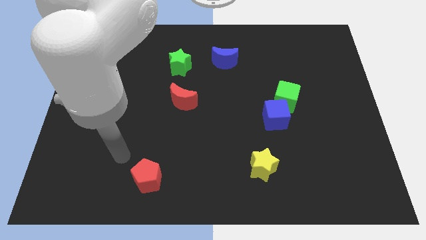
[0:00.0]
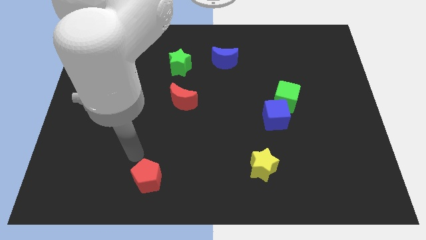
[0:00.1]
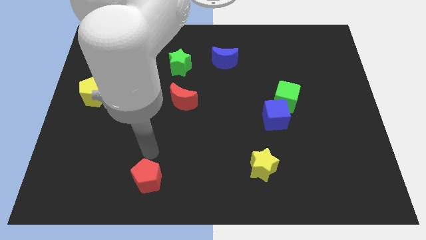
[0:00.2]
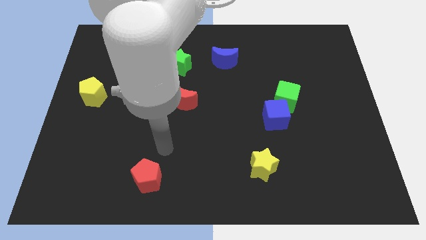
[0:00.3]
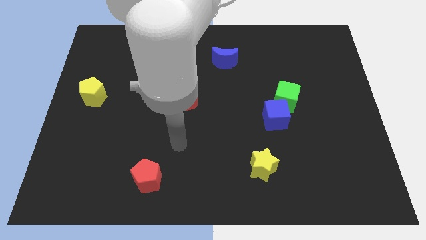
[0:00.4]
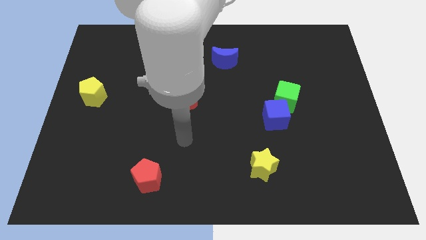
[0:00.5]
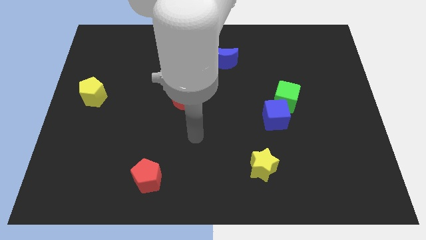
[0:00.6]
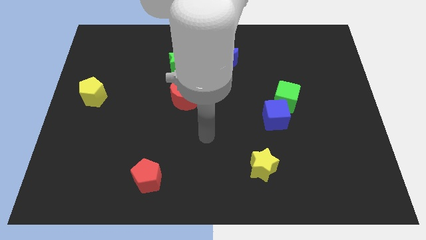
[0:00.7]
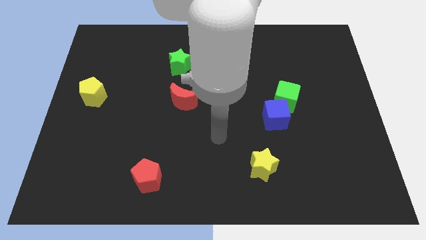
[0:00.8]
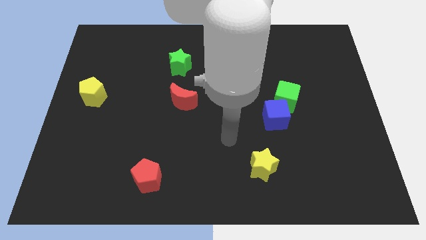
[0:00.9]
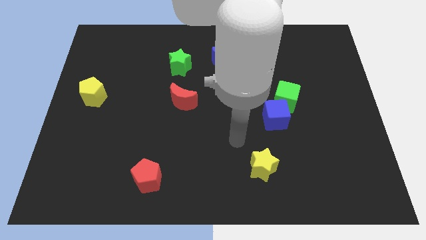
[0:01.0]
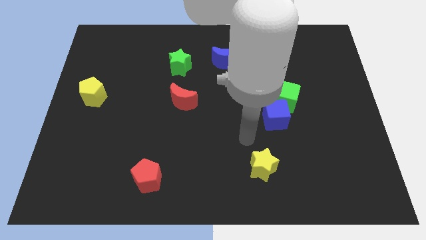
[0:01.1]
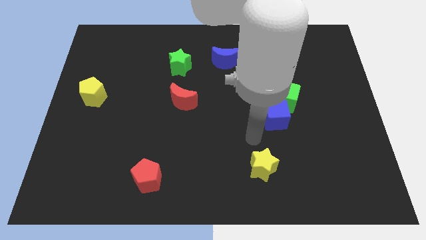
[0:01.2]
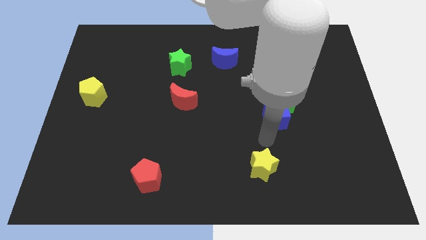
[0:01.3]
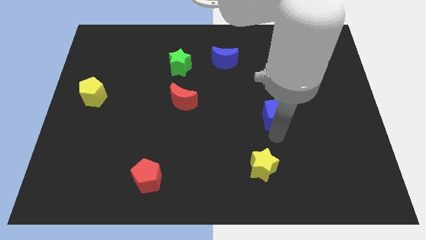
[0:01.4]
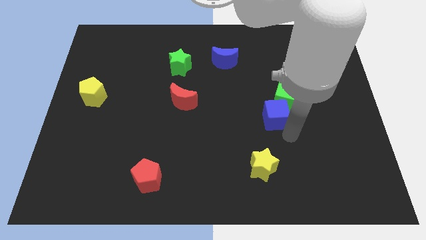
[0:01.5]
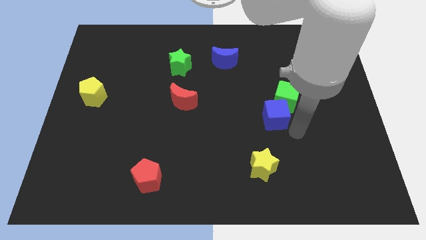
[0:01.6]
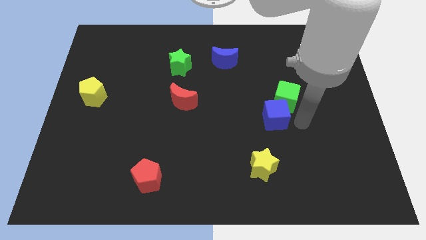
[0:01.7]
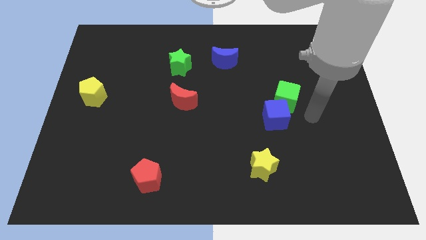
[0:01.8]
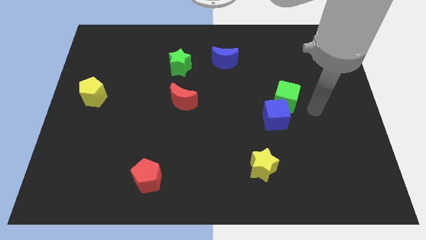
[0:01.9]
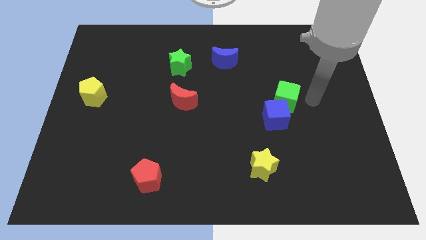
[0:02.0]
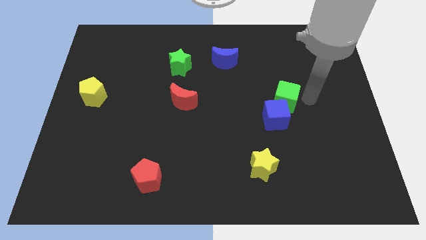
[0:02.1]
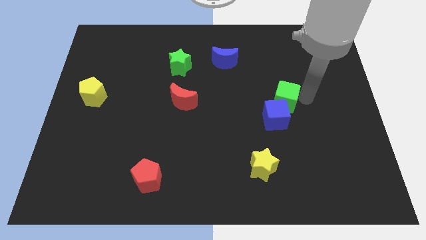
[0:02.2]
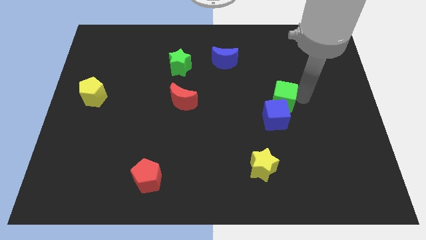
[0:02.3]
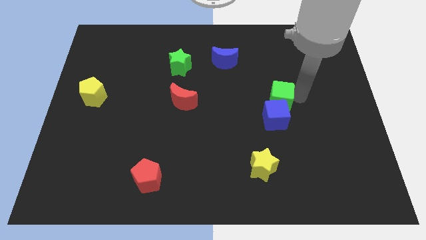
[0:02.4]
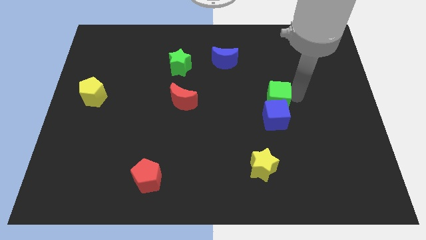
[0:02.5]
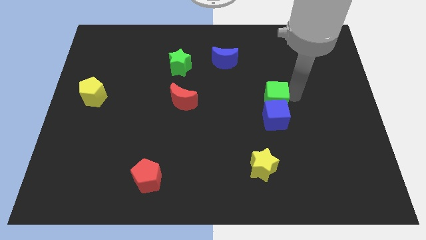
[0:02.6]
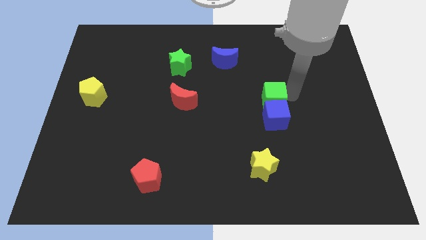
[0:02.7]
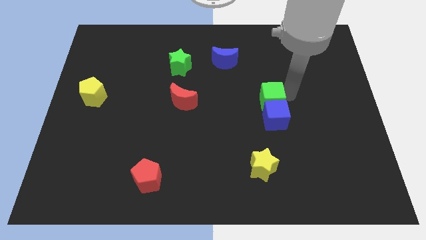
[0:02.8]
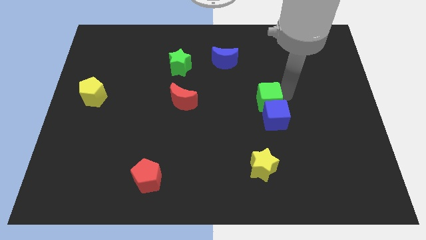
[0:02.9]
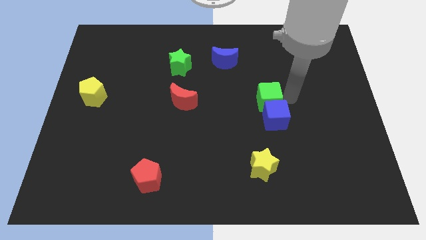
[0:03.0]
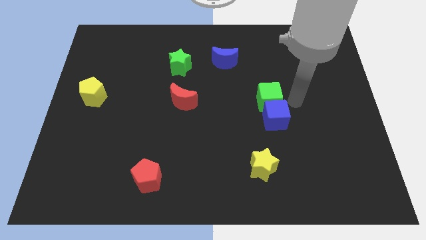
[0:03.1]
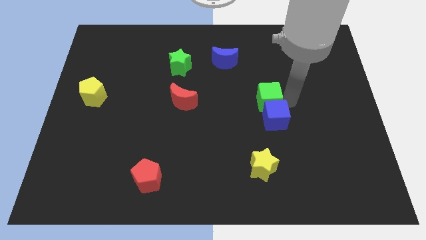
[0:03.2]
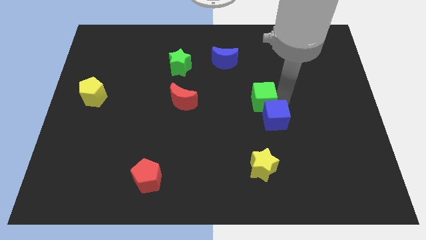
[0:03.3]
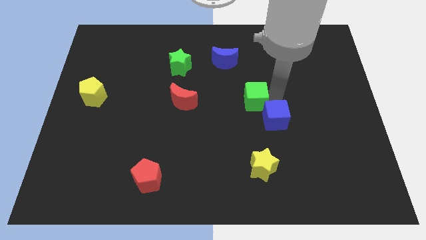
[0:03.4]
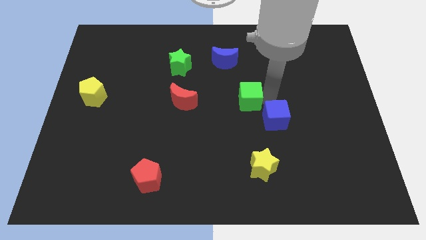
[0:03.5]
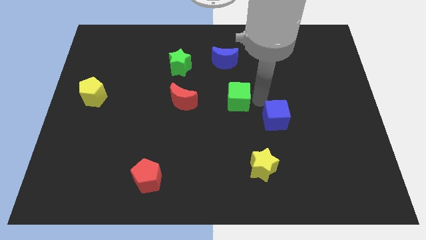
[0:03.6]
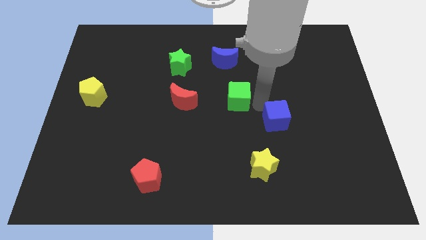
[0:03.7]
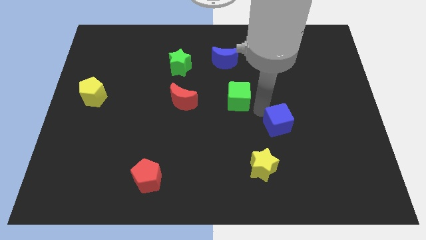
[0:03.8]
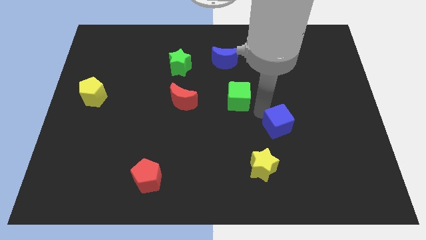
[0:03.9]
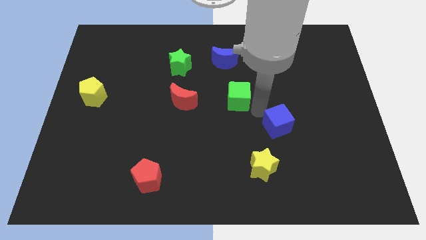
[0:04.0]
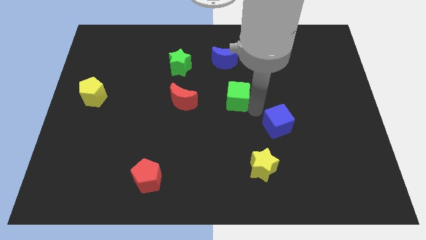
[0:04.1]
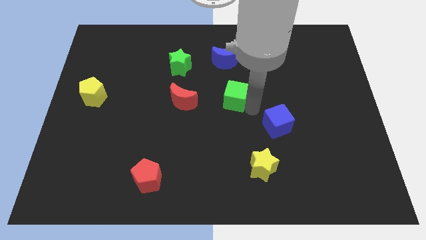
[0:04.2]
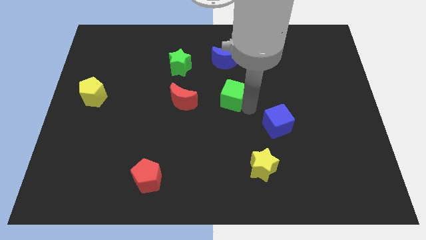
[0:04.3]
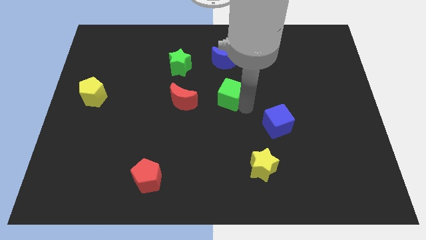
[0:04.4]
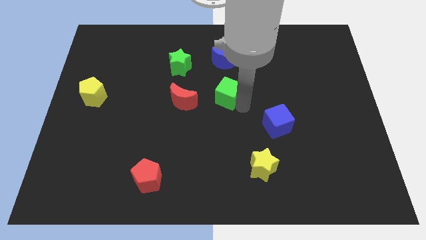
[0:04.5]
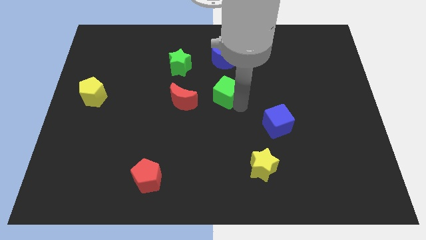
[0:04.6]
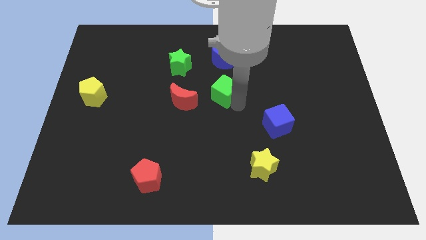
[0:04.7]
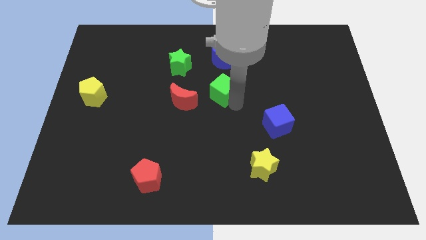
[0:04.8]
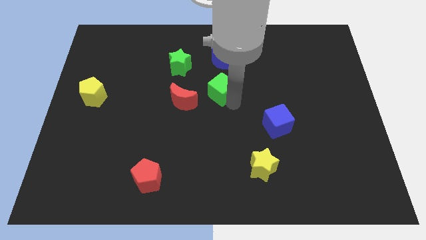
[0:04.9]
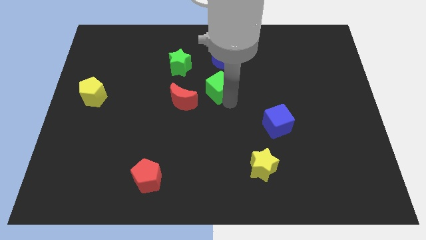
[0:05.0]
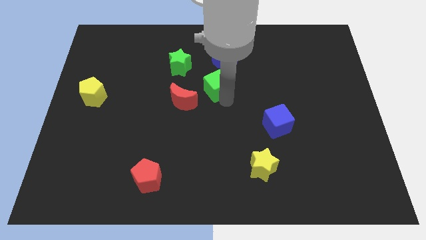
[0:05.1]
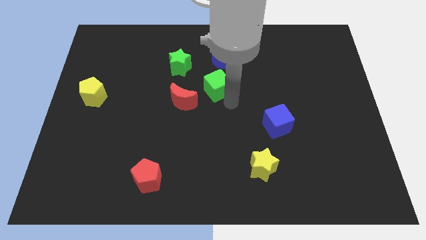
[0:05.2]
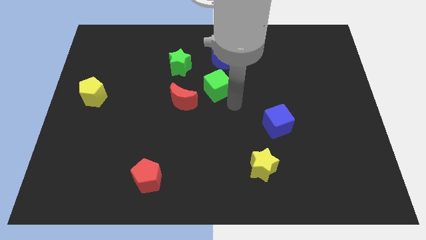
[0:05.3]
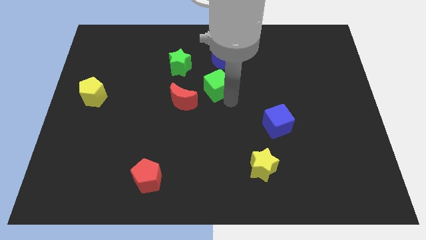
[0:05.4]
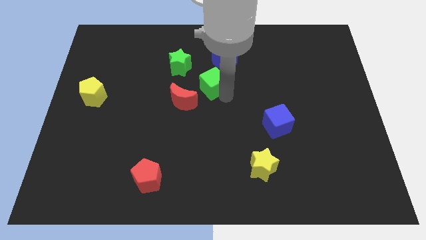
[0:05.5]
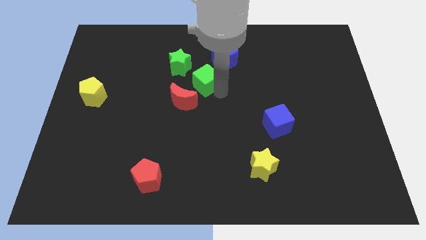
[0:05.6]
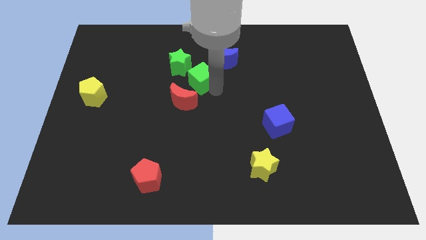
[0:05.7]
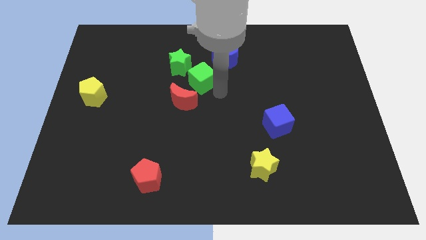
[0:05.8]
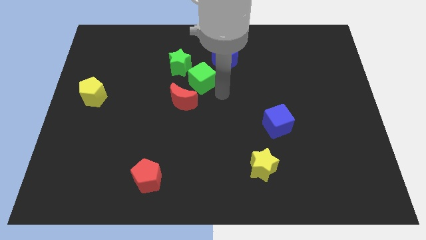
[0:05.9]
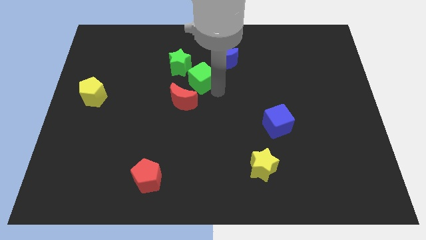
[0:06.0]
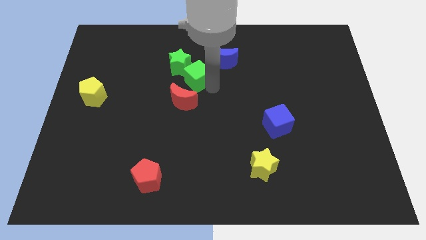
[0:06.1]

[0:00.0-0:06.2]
slide the green cube next to the green star

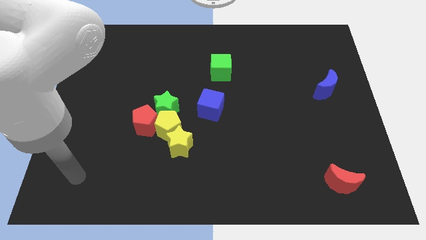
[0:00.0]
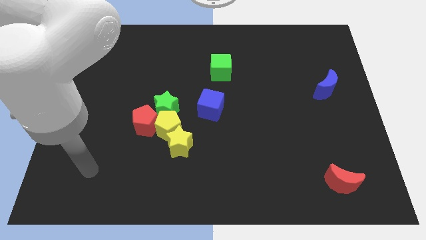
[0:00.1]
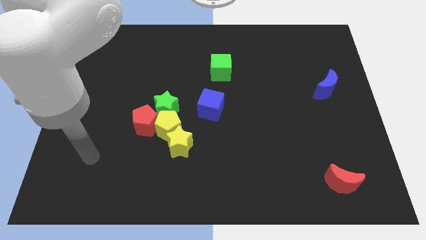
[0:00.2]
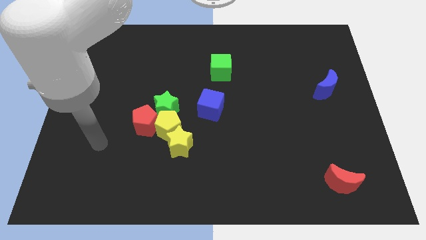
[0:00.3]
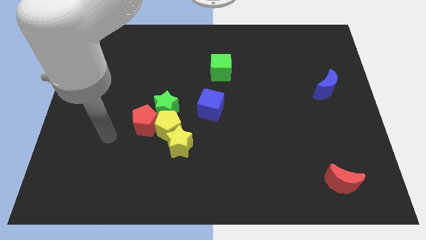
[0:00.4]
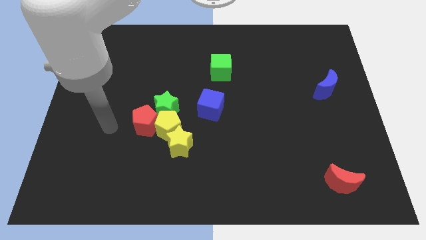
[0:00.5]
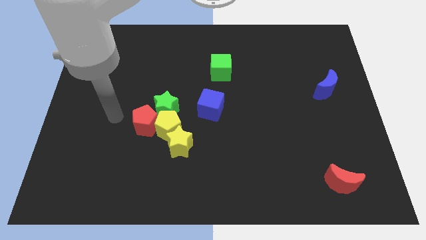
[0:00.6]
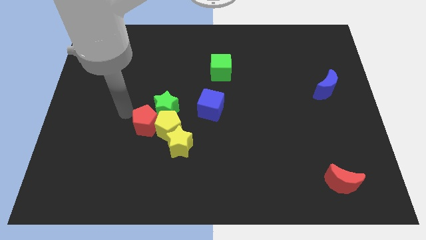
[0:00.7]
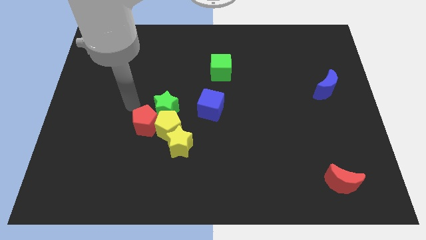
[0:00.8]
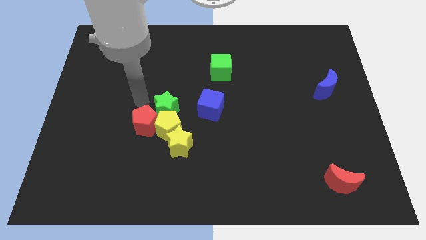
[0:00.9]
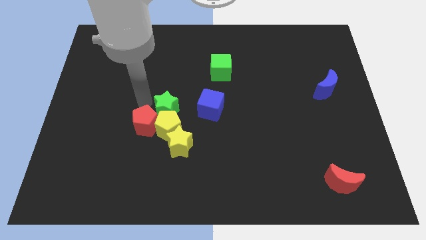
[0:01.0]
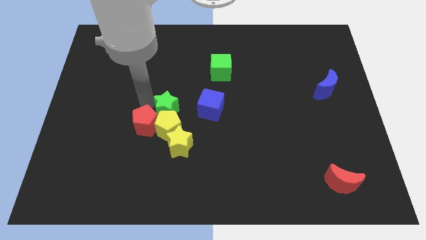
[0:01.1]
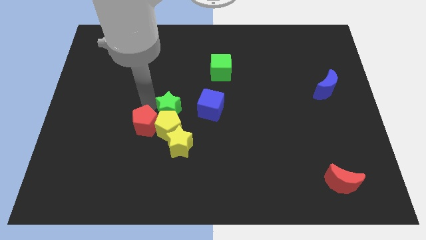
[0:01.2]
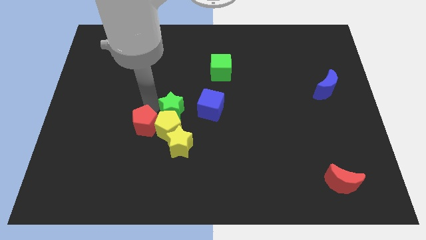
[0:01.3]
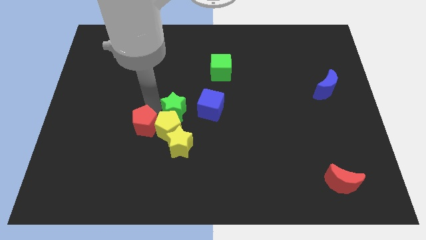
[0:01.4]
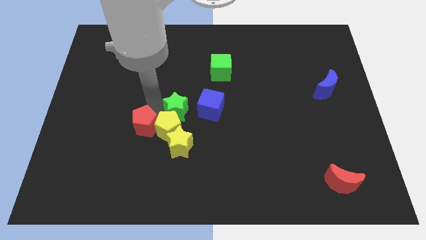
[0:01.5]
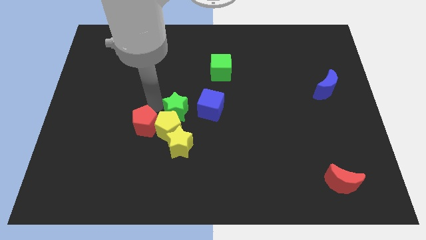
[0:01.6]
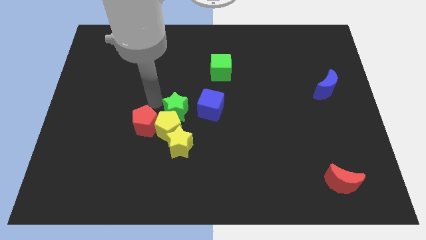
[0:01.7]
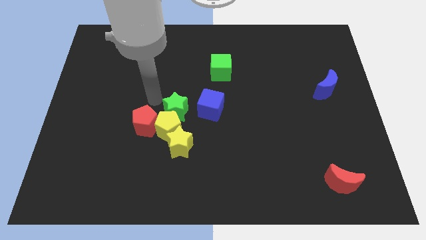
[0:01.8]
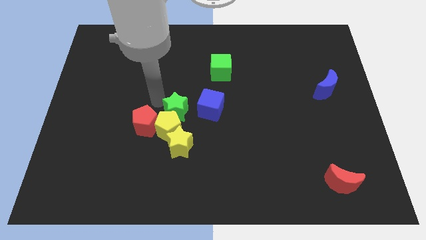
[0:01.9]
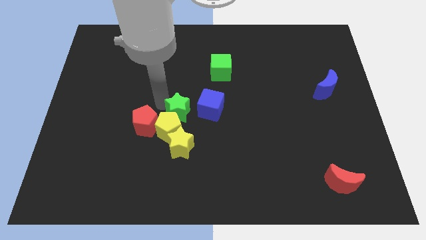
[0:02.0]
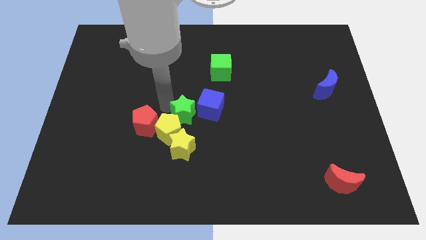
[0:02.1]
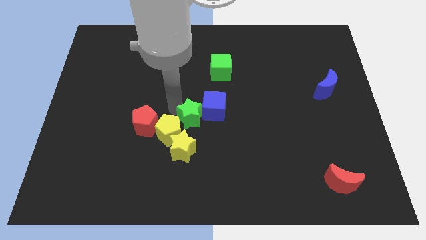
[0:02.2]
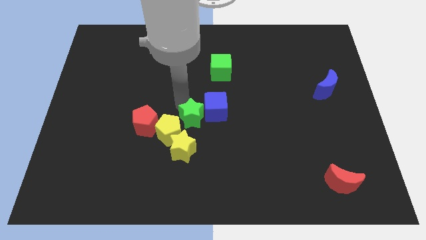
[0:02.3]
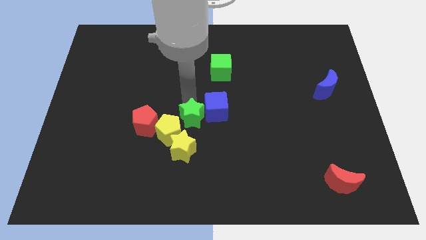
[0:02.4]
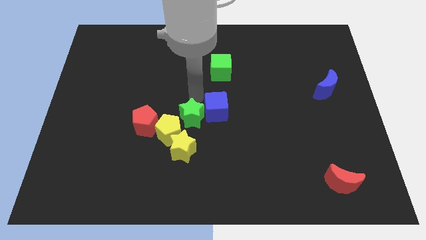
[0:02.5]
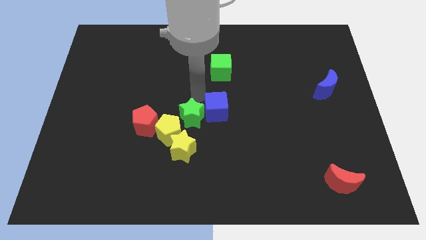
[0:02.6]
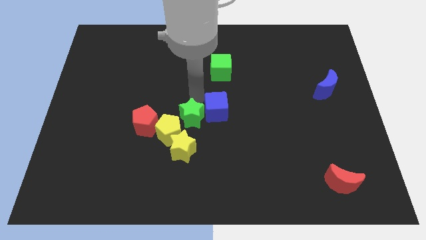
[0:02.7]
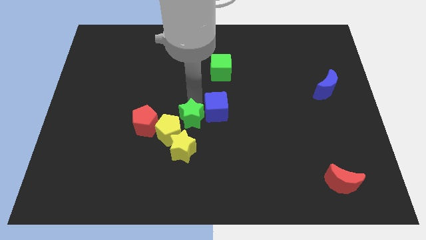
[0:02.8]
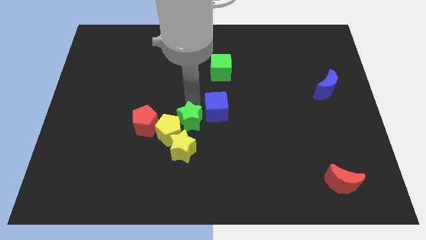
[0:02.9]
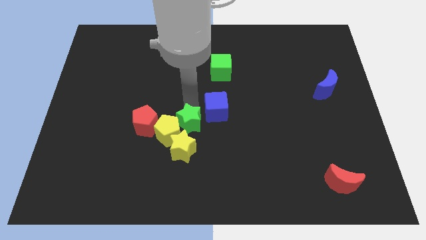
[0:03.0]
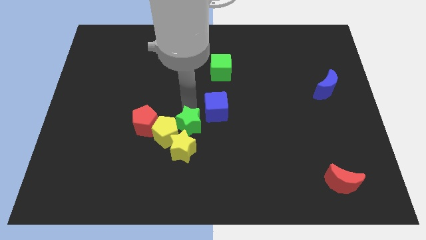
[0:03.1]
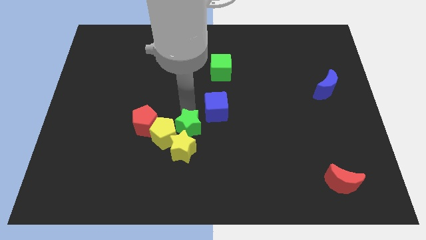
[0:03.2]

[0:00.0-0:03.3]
move the green star to the yellow star
